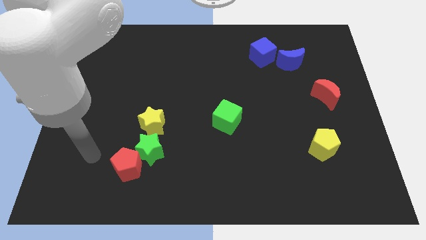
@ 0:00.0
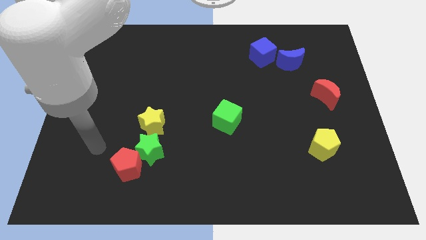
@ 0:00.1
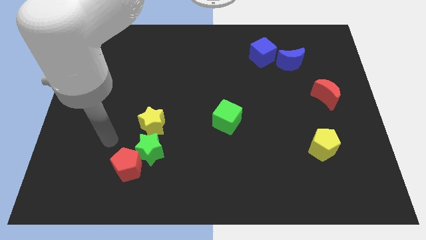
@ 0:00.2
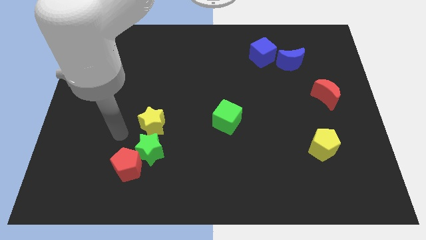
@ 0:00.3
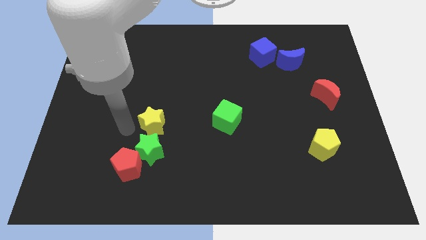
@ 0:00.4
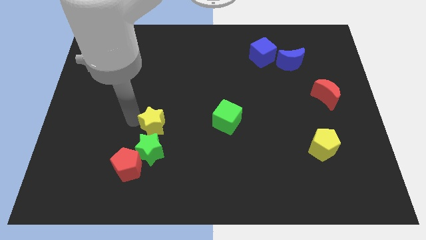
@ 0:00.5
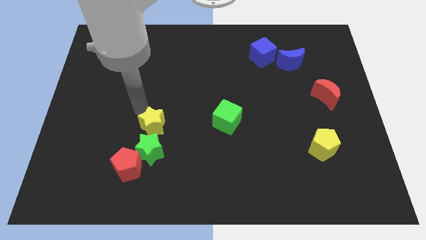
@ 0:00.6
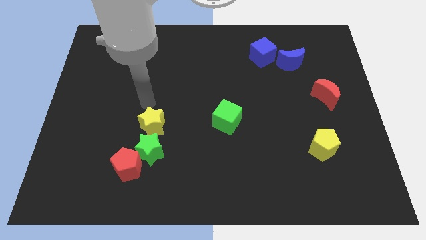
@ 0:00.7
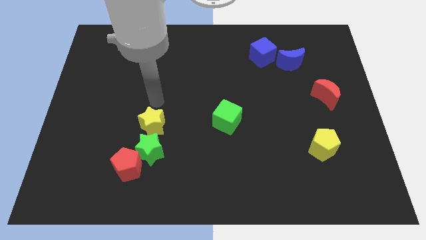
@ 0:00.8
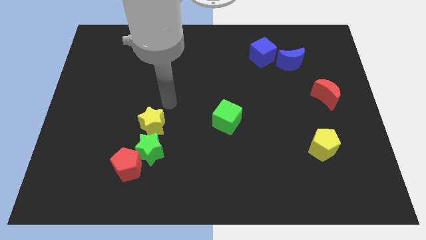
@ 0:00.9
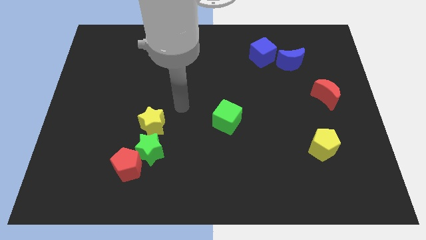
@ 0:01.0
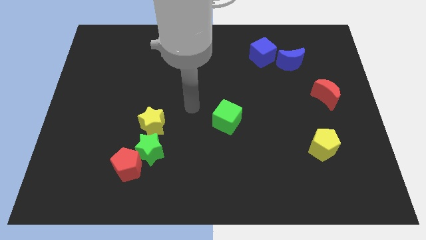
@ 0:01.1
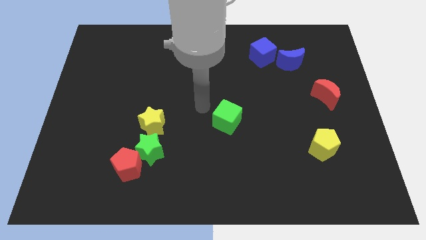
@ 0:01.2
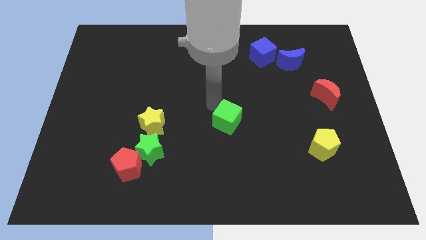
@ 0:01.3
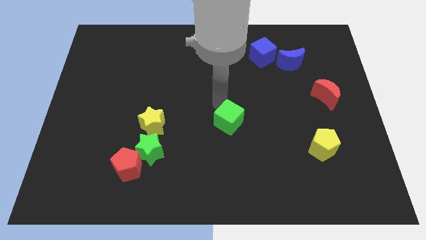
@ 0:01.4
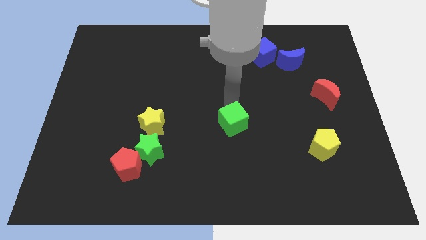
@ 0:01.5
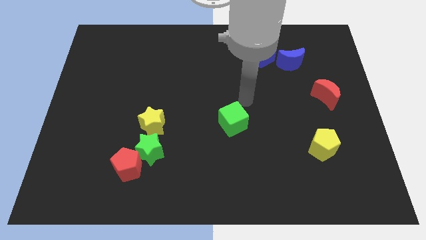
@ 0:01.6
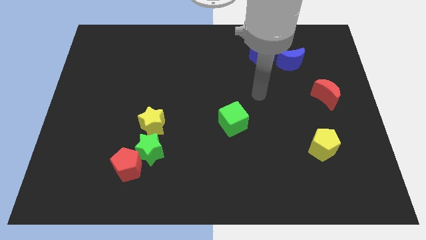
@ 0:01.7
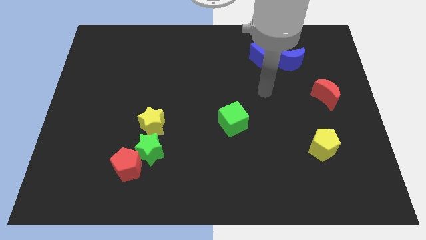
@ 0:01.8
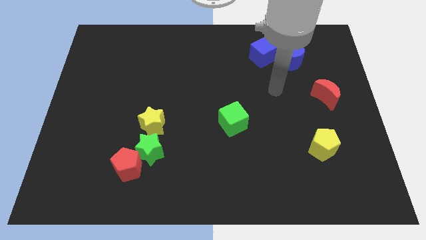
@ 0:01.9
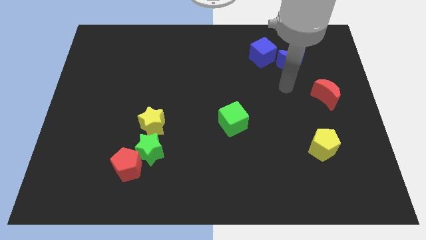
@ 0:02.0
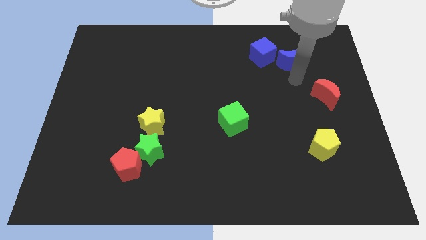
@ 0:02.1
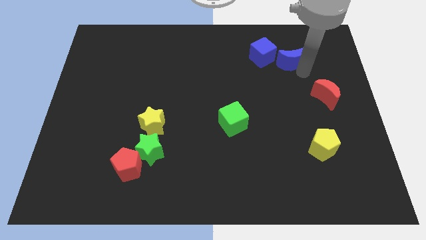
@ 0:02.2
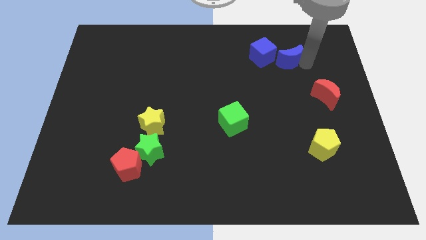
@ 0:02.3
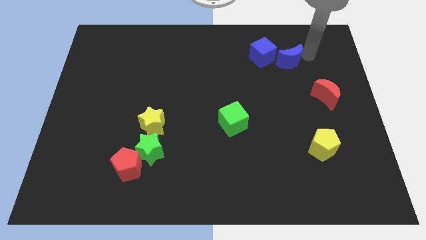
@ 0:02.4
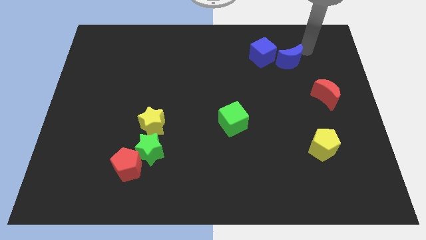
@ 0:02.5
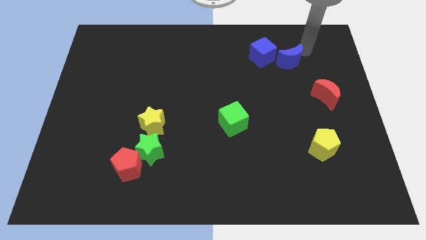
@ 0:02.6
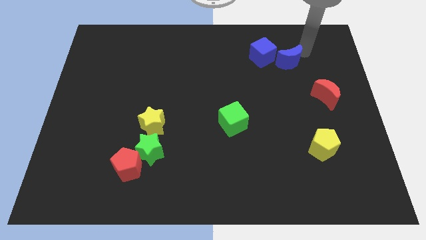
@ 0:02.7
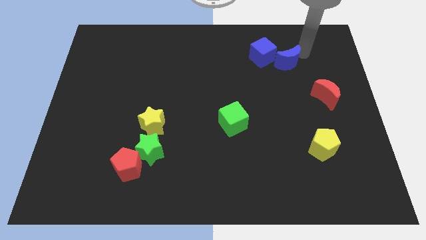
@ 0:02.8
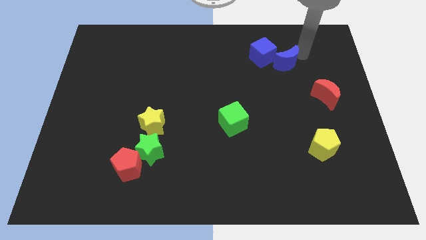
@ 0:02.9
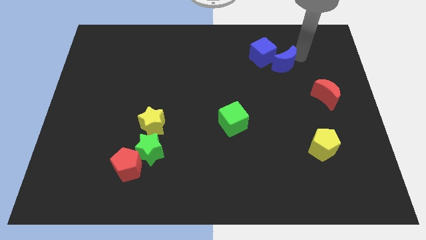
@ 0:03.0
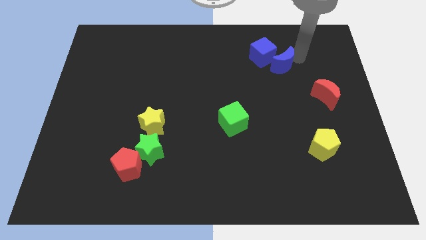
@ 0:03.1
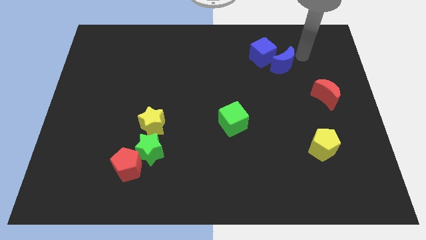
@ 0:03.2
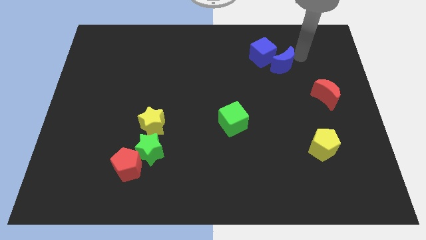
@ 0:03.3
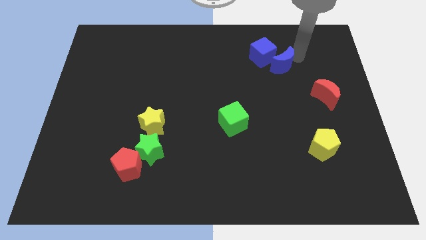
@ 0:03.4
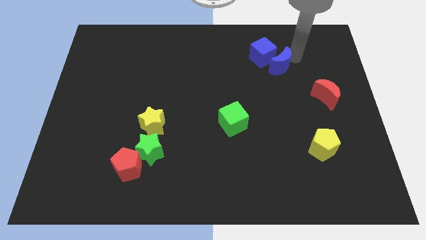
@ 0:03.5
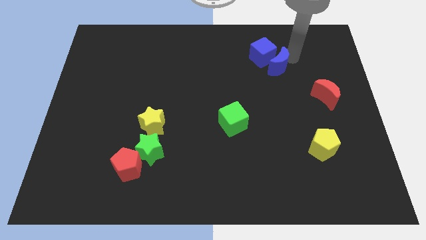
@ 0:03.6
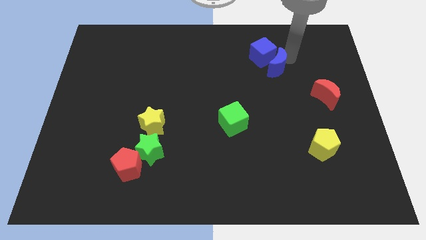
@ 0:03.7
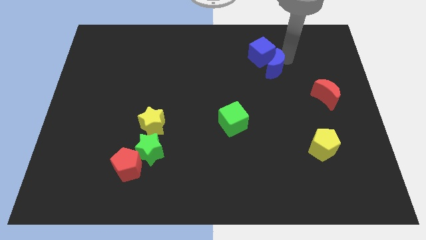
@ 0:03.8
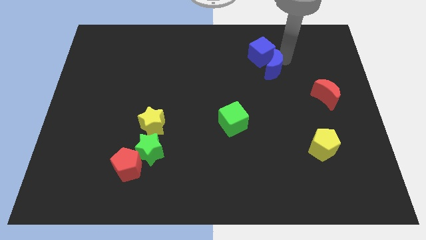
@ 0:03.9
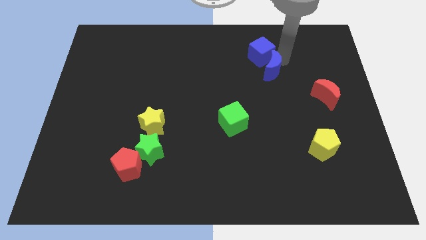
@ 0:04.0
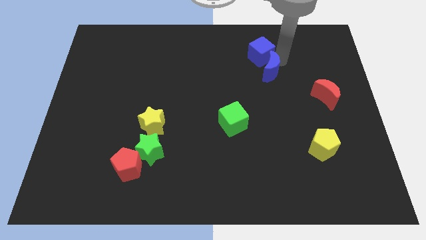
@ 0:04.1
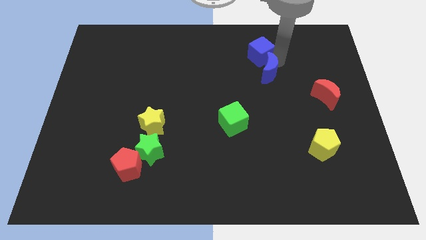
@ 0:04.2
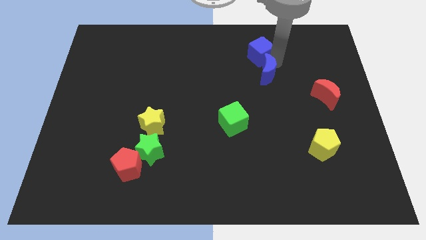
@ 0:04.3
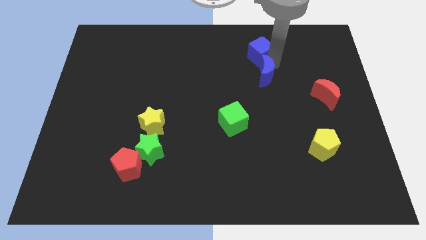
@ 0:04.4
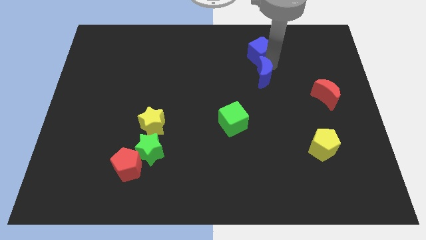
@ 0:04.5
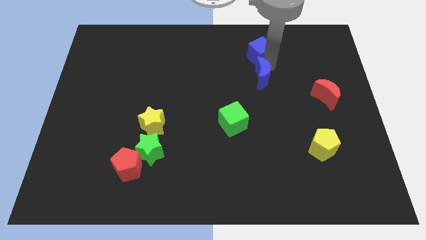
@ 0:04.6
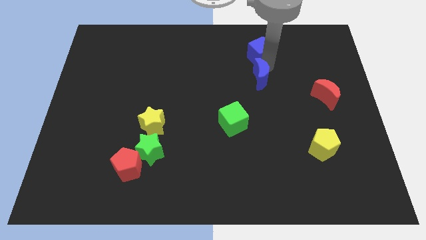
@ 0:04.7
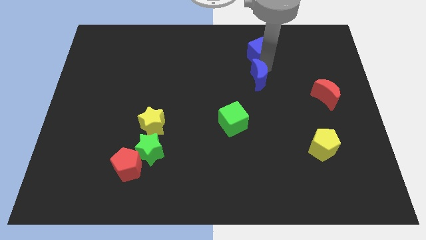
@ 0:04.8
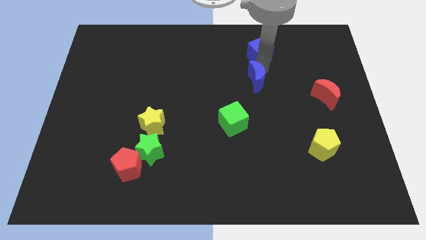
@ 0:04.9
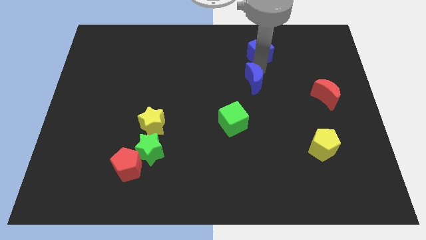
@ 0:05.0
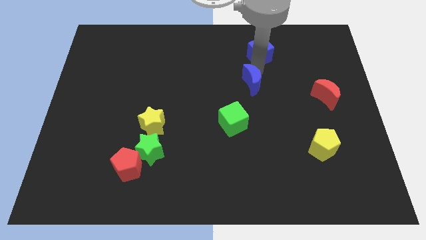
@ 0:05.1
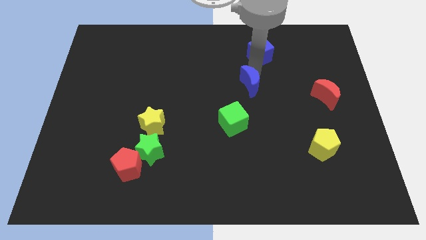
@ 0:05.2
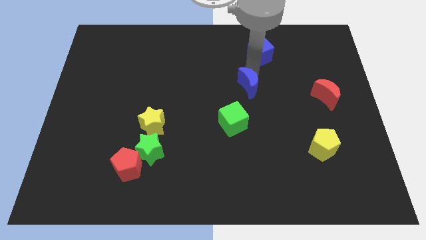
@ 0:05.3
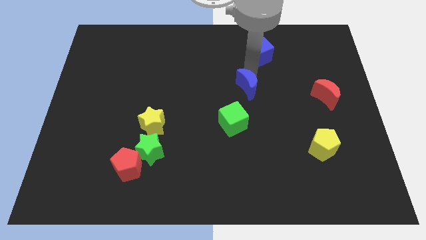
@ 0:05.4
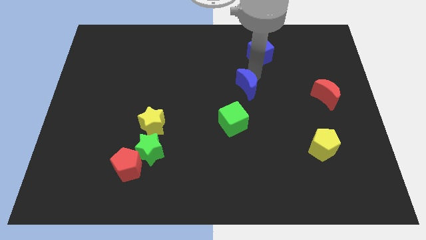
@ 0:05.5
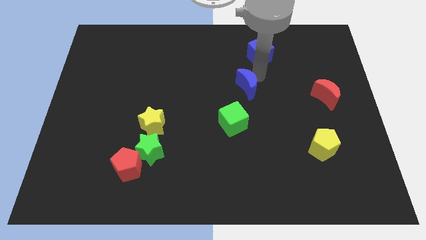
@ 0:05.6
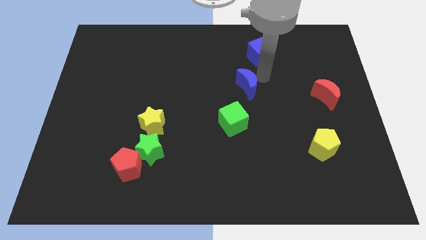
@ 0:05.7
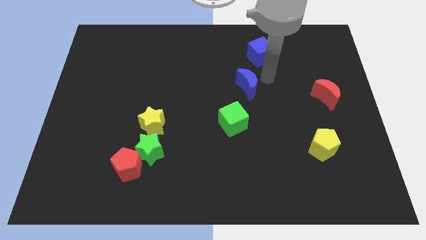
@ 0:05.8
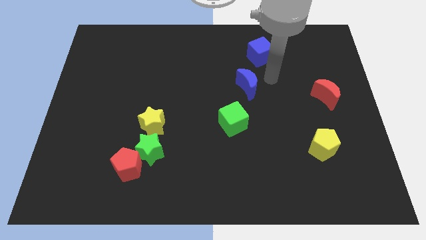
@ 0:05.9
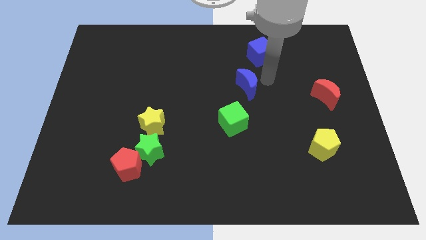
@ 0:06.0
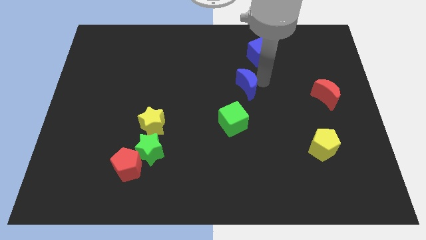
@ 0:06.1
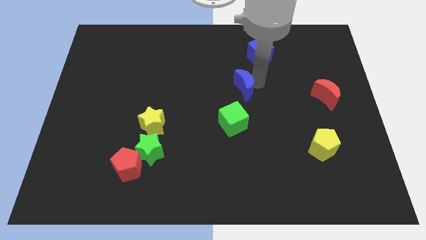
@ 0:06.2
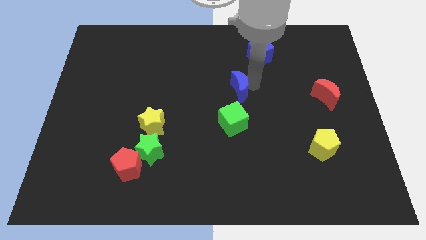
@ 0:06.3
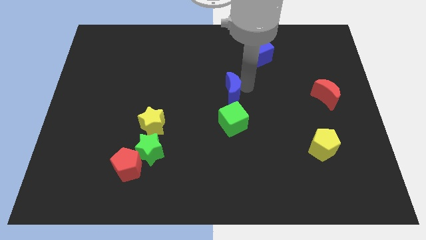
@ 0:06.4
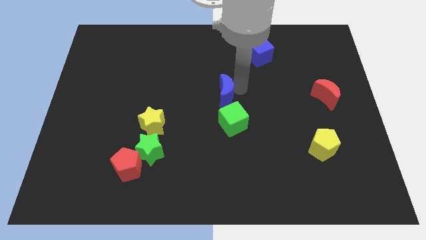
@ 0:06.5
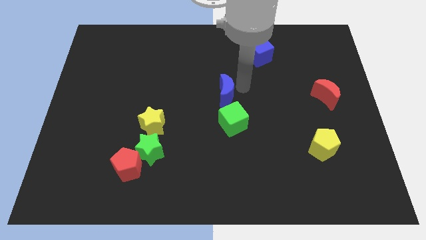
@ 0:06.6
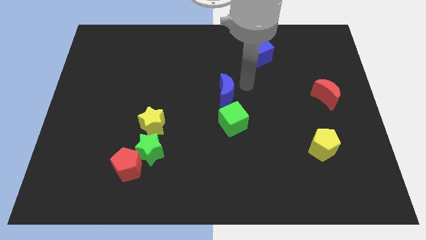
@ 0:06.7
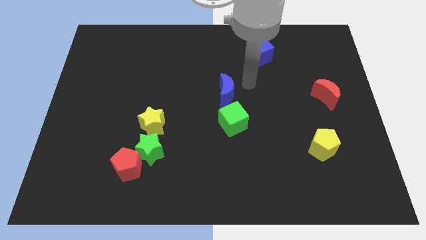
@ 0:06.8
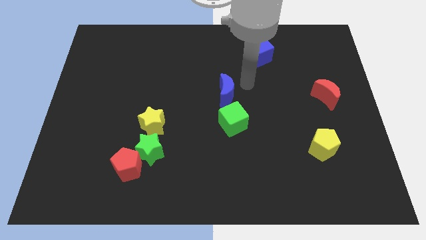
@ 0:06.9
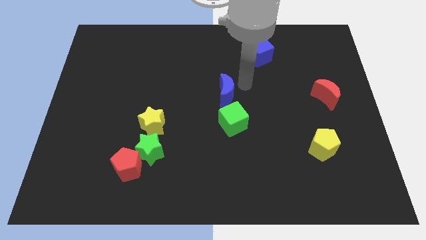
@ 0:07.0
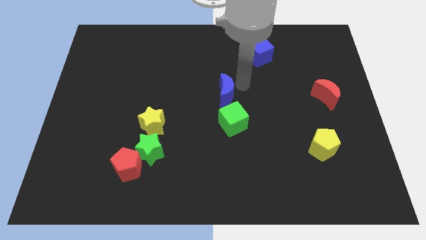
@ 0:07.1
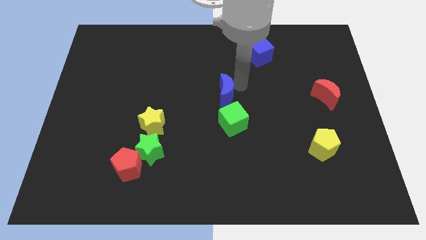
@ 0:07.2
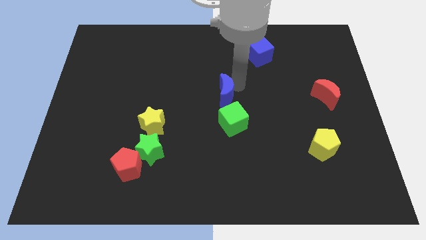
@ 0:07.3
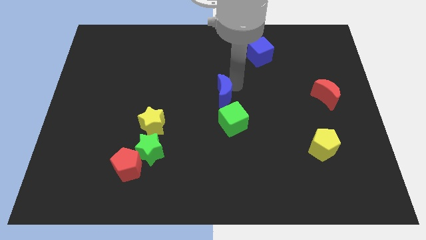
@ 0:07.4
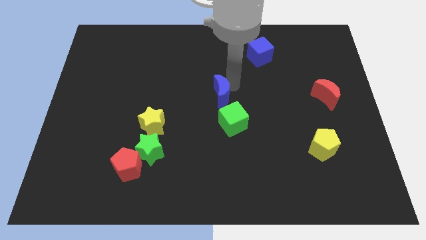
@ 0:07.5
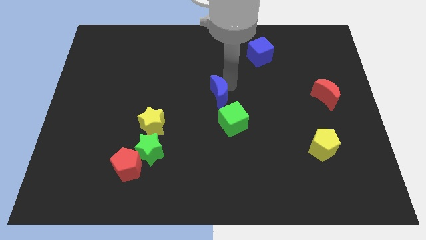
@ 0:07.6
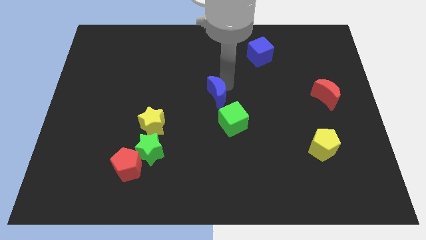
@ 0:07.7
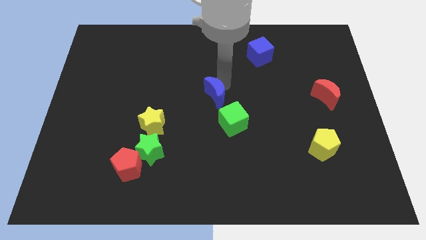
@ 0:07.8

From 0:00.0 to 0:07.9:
move the blue moon down and left

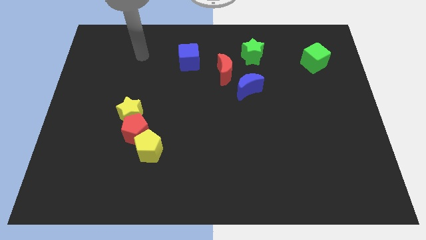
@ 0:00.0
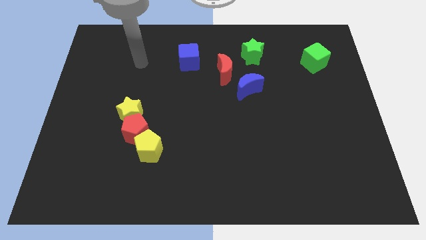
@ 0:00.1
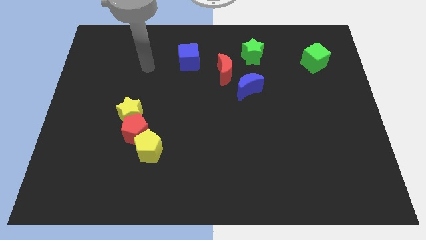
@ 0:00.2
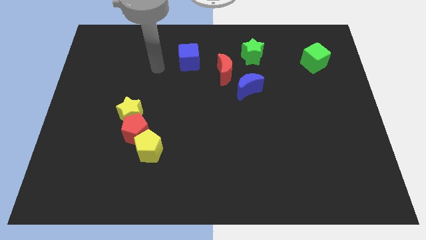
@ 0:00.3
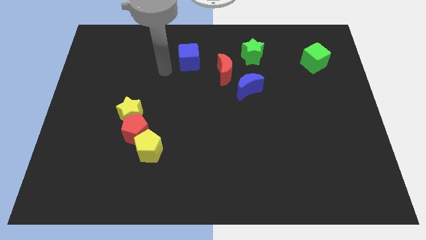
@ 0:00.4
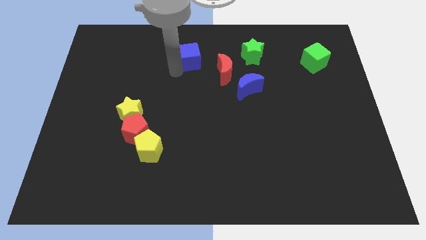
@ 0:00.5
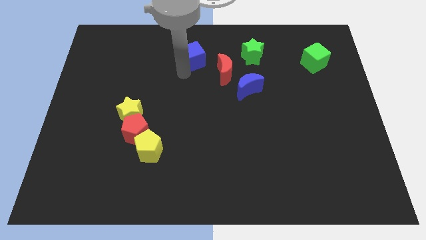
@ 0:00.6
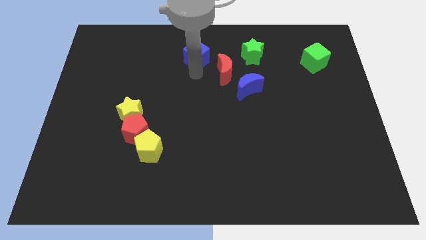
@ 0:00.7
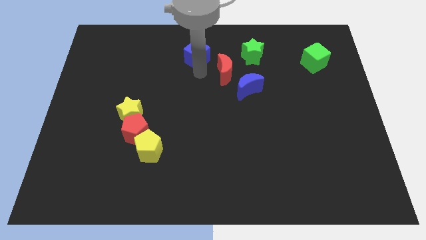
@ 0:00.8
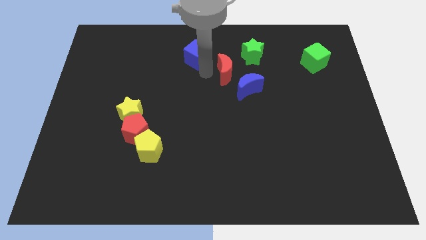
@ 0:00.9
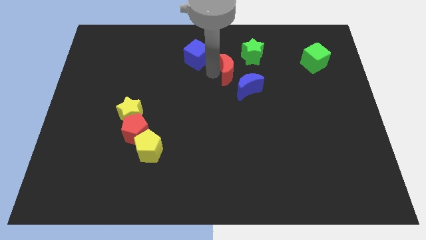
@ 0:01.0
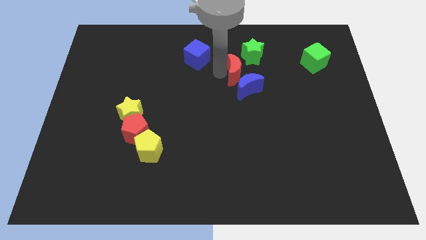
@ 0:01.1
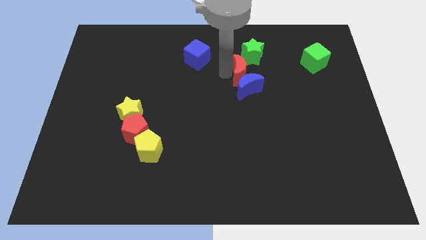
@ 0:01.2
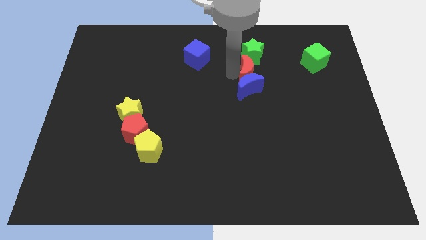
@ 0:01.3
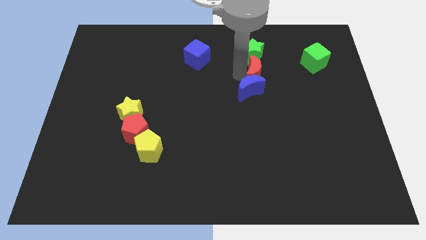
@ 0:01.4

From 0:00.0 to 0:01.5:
slide the red moon a little right
